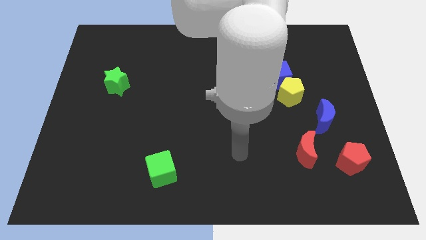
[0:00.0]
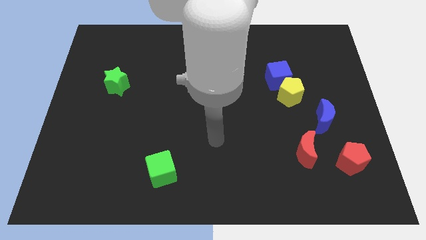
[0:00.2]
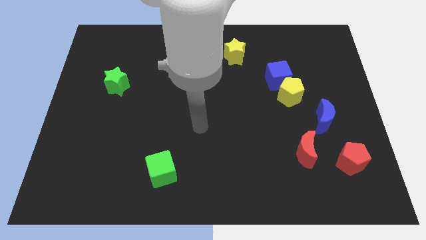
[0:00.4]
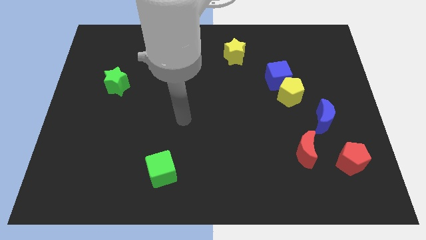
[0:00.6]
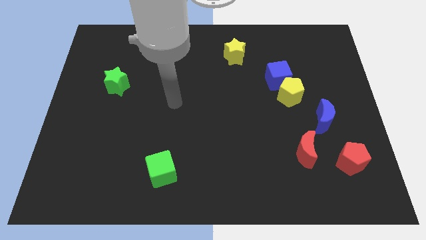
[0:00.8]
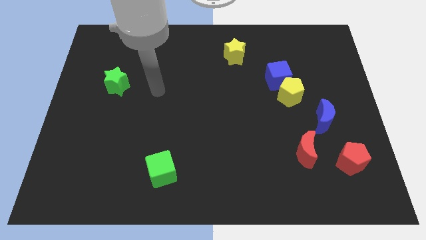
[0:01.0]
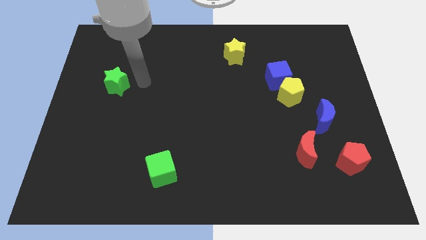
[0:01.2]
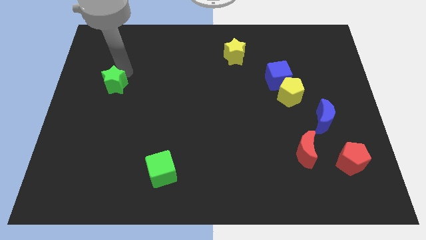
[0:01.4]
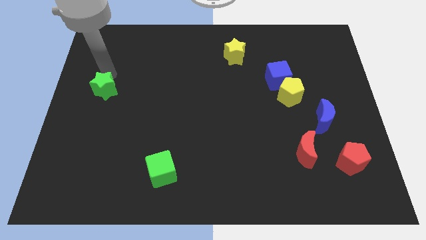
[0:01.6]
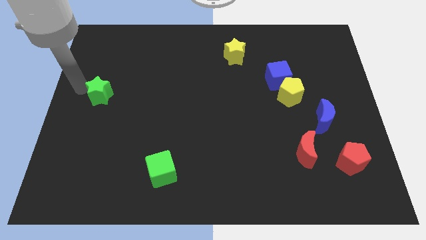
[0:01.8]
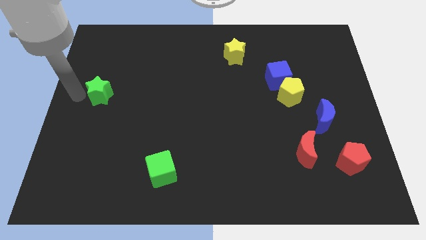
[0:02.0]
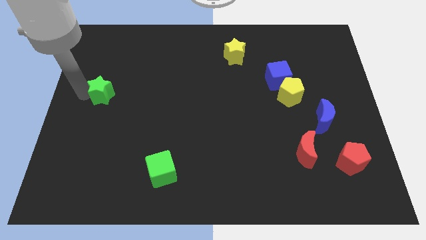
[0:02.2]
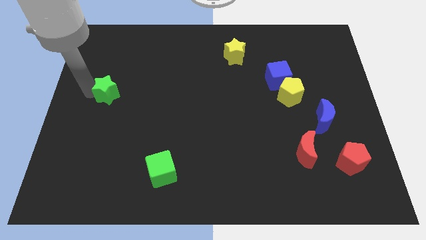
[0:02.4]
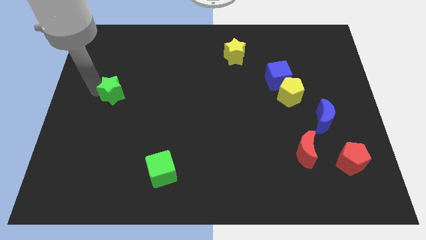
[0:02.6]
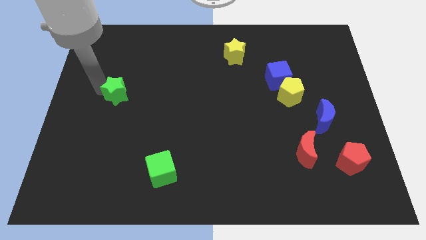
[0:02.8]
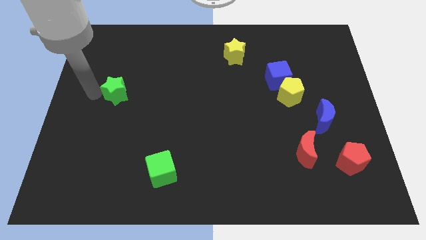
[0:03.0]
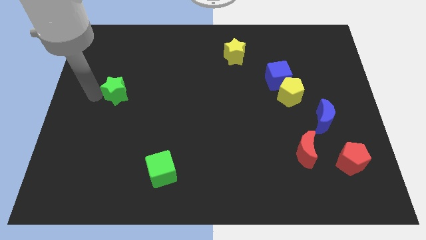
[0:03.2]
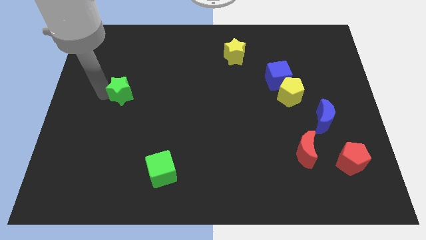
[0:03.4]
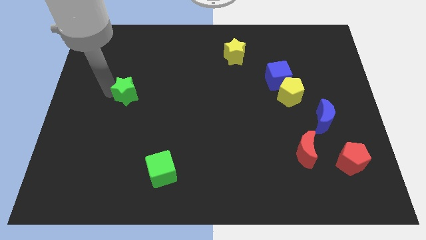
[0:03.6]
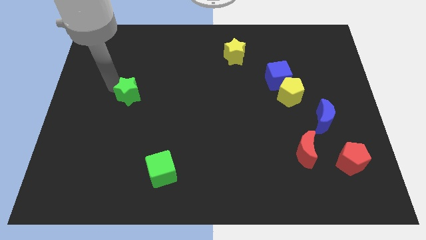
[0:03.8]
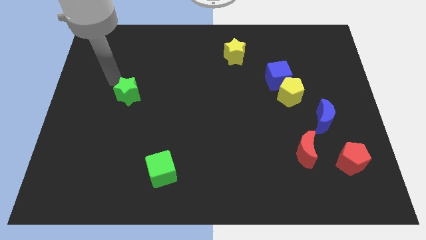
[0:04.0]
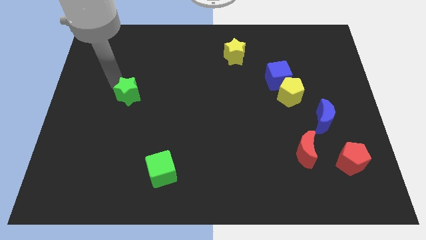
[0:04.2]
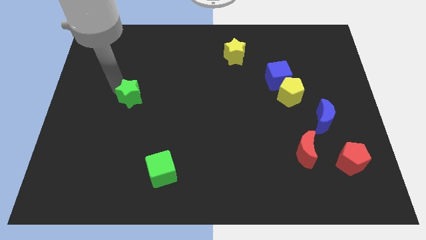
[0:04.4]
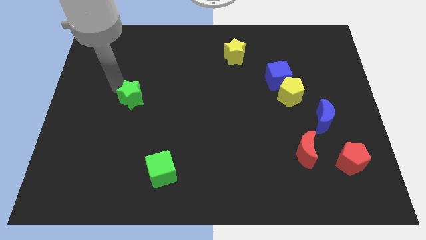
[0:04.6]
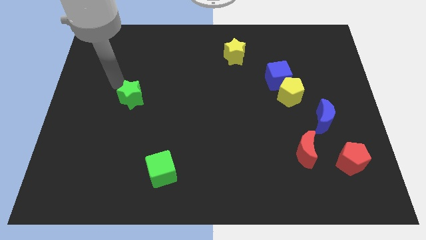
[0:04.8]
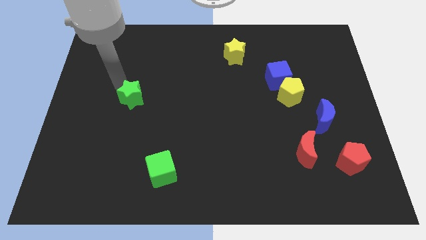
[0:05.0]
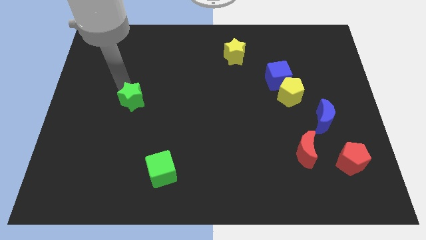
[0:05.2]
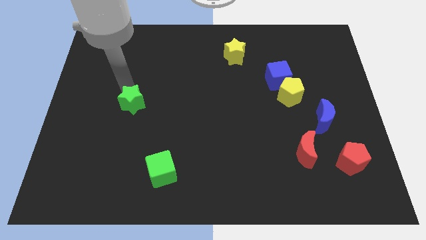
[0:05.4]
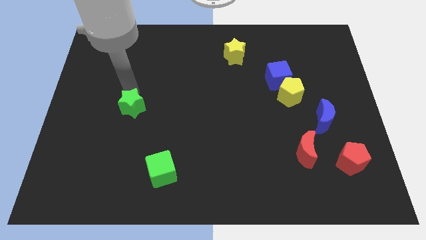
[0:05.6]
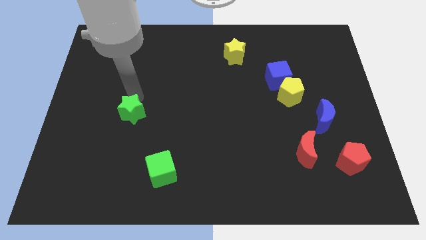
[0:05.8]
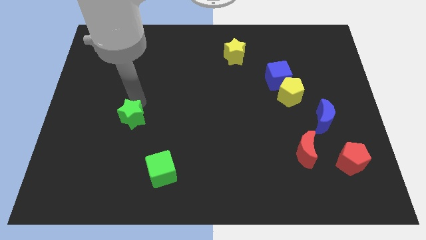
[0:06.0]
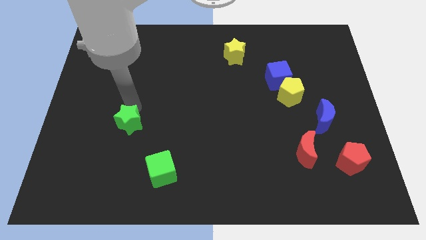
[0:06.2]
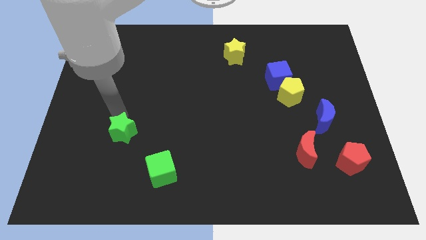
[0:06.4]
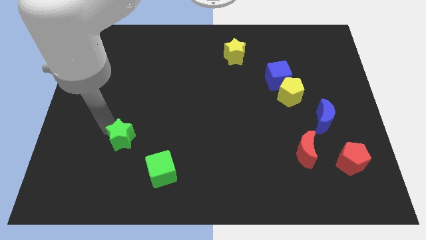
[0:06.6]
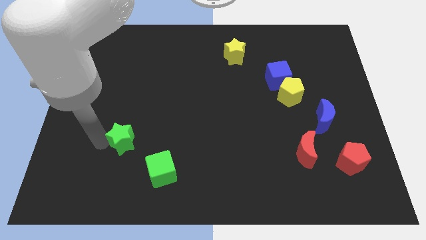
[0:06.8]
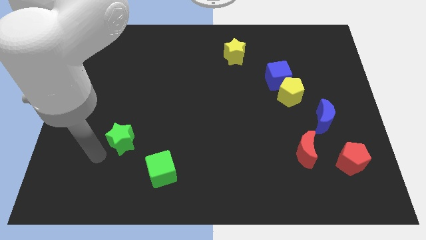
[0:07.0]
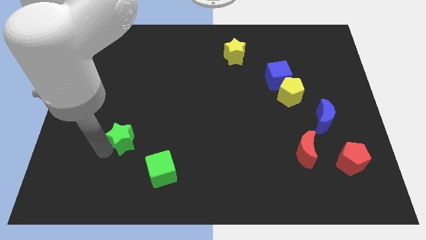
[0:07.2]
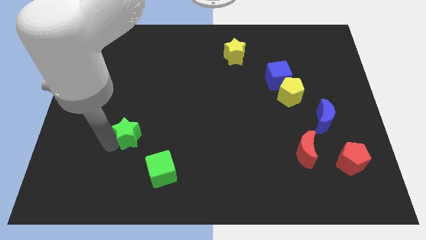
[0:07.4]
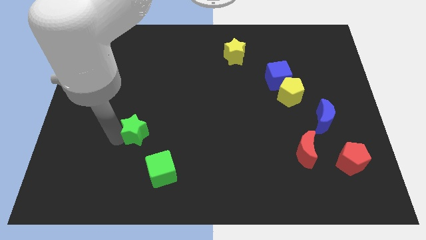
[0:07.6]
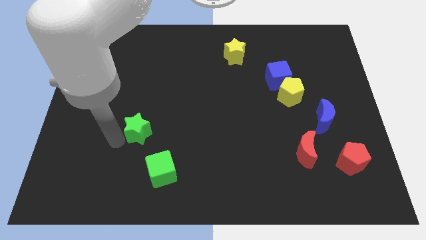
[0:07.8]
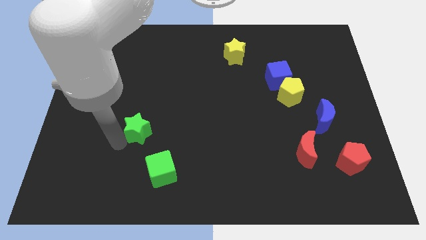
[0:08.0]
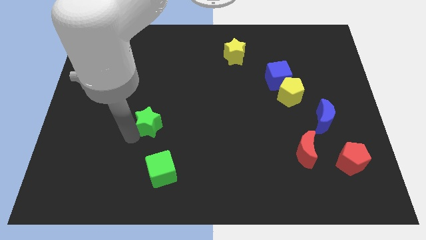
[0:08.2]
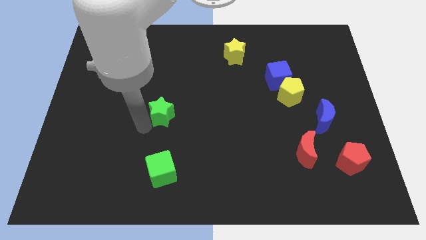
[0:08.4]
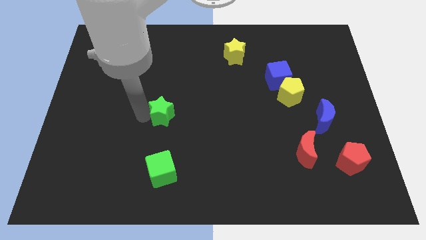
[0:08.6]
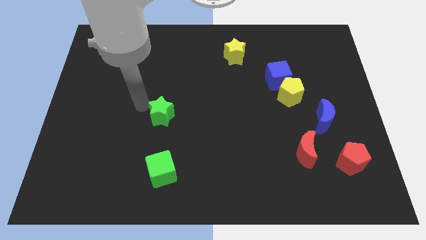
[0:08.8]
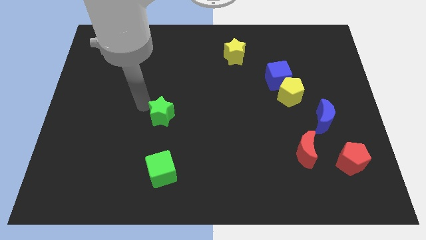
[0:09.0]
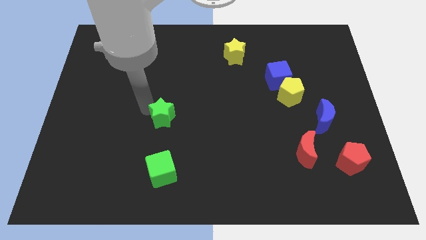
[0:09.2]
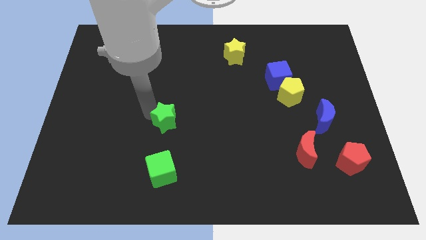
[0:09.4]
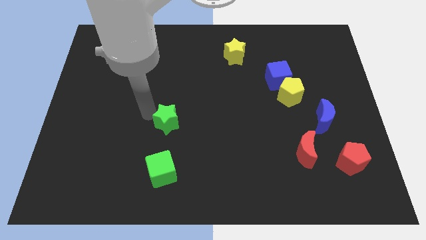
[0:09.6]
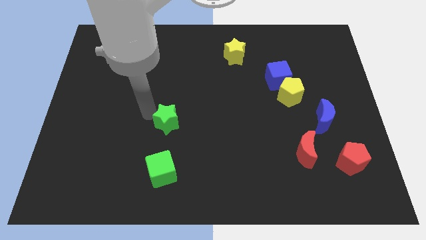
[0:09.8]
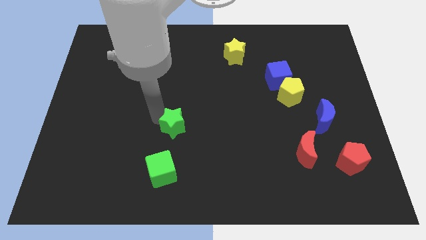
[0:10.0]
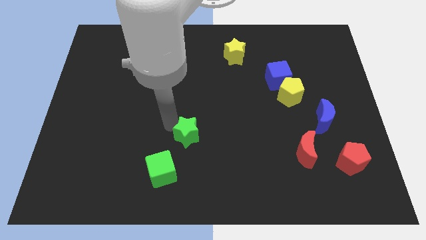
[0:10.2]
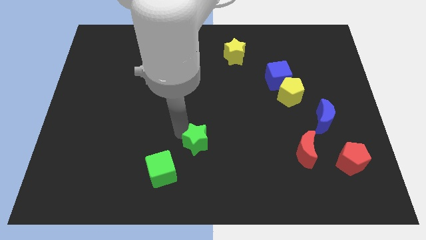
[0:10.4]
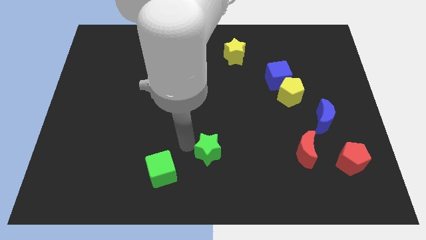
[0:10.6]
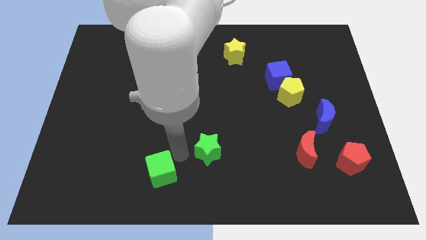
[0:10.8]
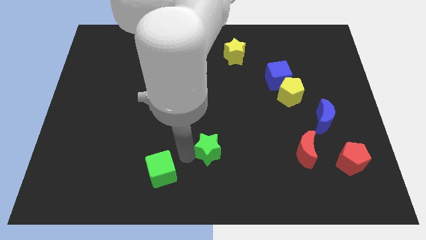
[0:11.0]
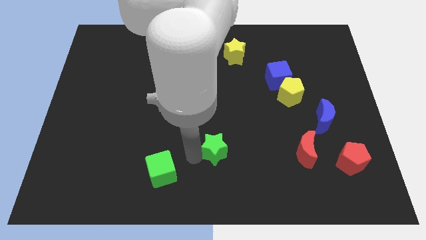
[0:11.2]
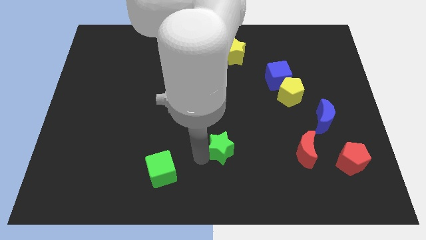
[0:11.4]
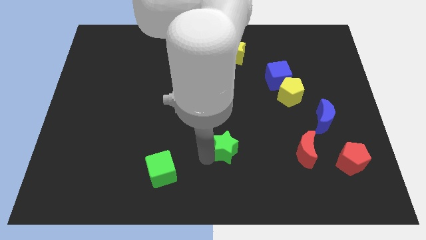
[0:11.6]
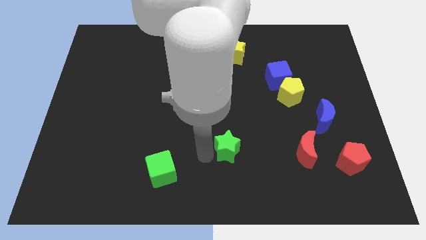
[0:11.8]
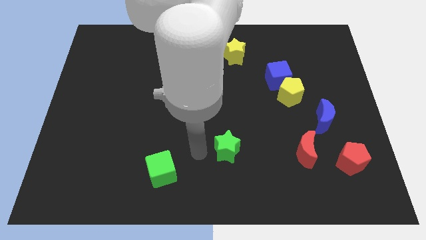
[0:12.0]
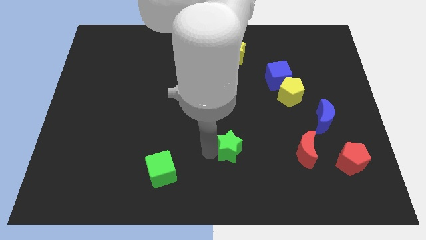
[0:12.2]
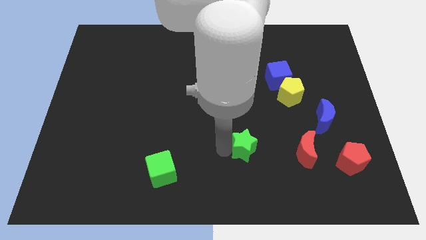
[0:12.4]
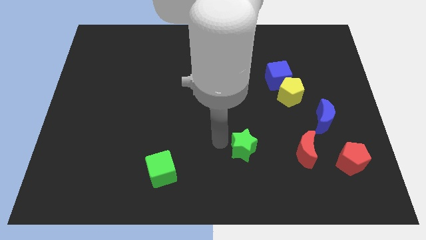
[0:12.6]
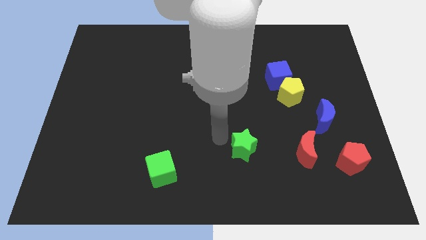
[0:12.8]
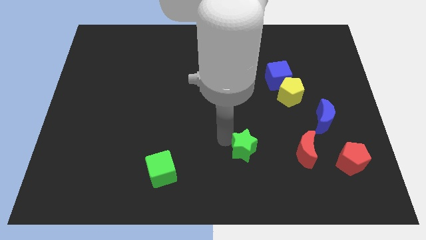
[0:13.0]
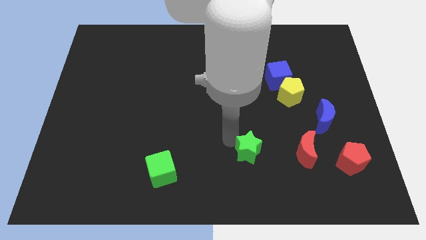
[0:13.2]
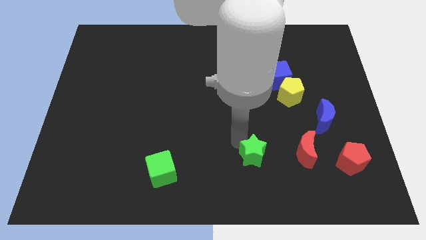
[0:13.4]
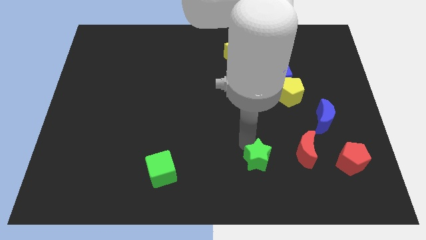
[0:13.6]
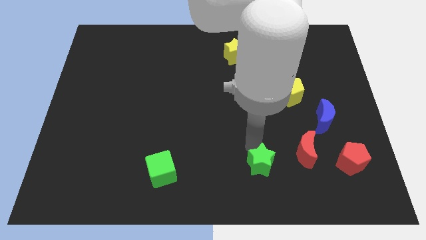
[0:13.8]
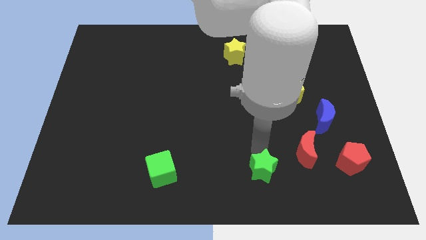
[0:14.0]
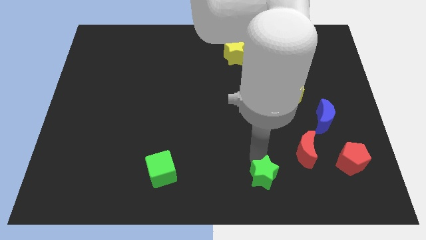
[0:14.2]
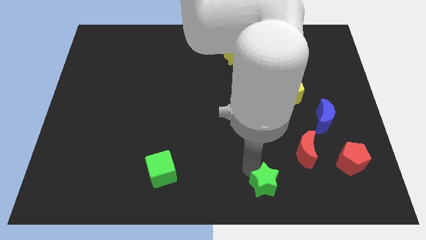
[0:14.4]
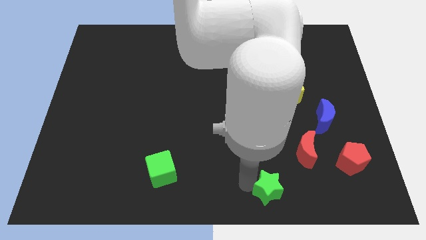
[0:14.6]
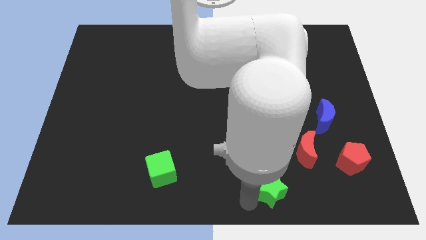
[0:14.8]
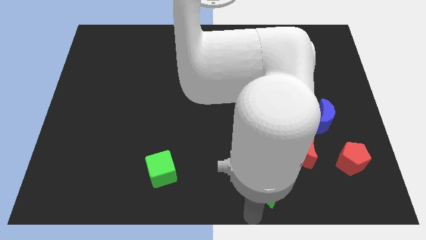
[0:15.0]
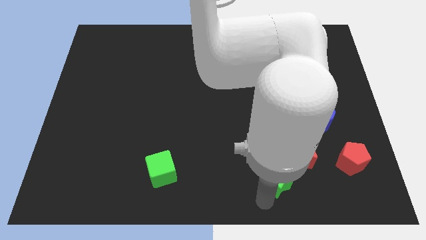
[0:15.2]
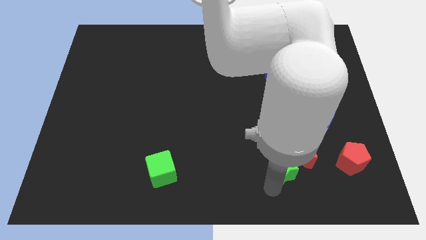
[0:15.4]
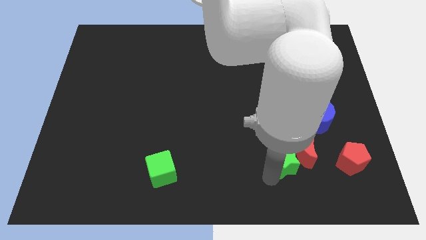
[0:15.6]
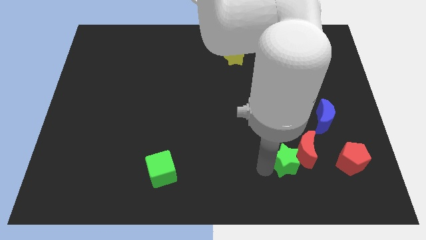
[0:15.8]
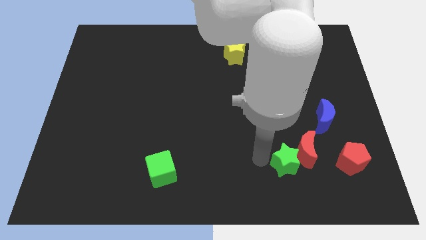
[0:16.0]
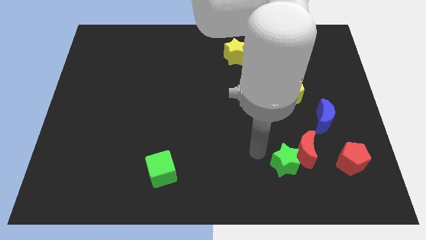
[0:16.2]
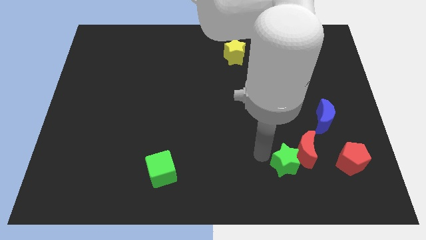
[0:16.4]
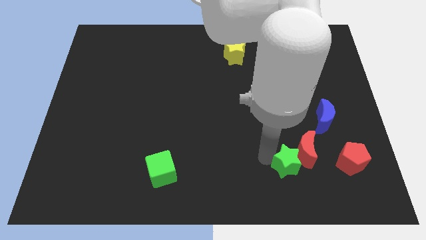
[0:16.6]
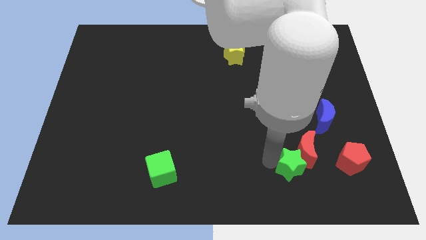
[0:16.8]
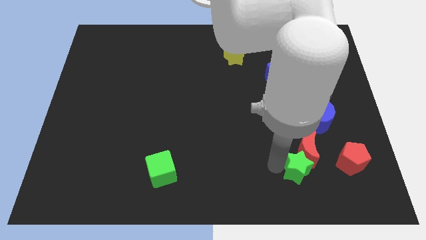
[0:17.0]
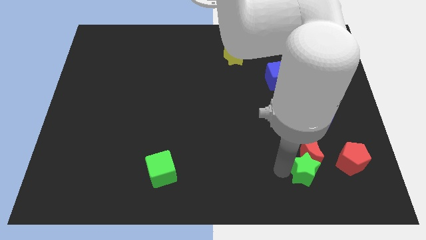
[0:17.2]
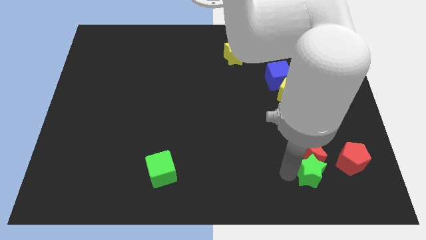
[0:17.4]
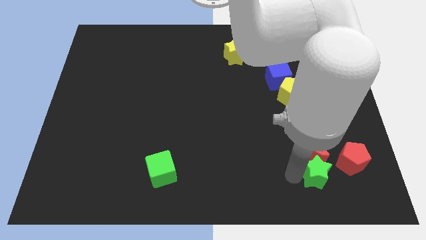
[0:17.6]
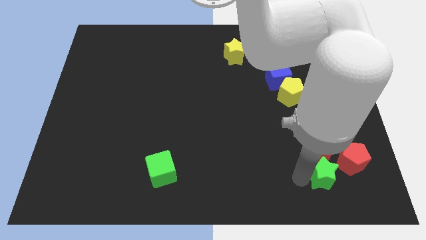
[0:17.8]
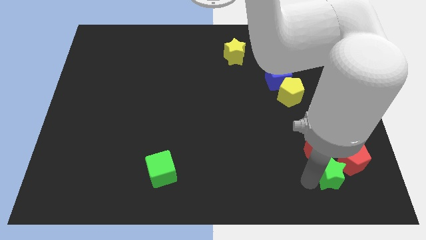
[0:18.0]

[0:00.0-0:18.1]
move the green star close to the red pentagon
